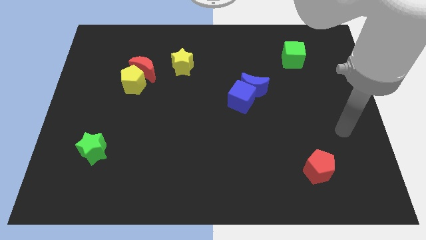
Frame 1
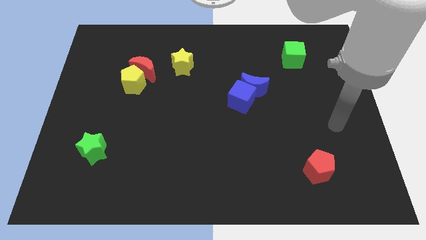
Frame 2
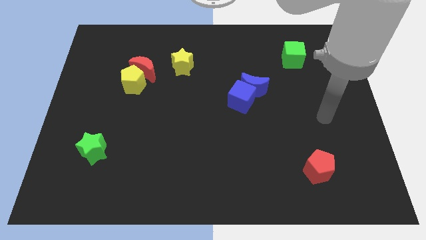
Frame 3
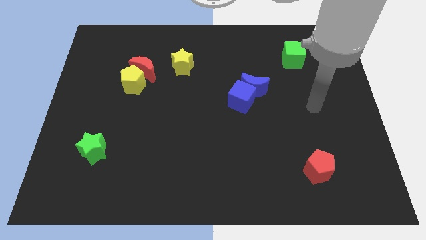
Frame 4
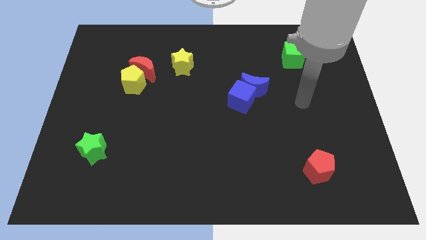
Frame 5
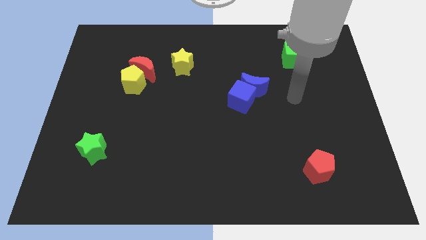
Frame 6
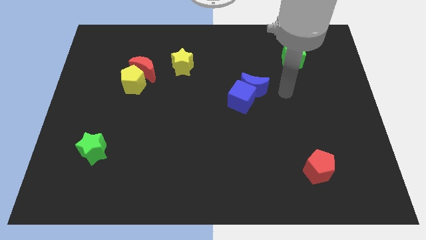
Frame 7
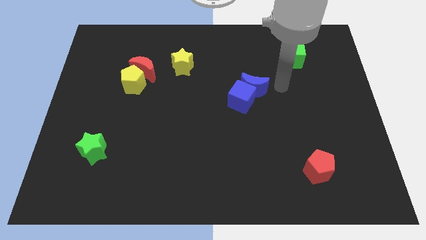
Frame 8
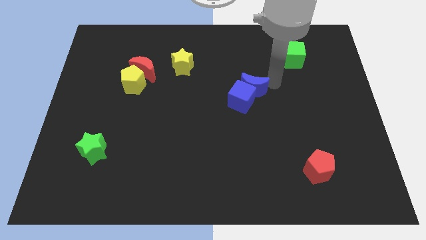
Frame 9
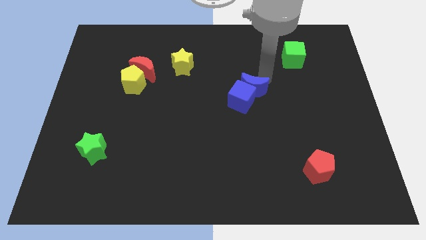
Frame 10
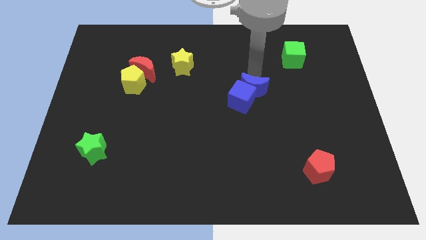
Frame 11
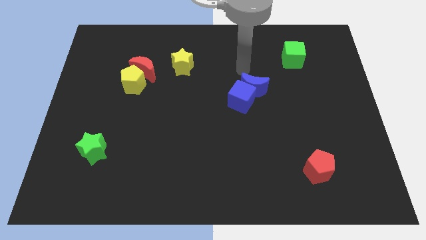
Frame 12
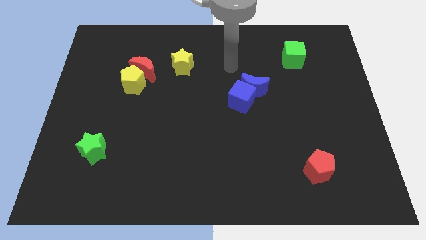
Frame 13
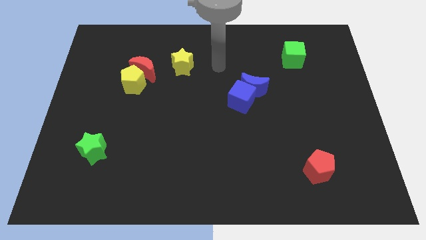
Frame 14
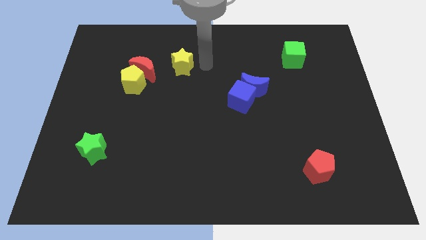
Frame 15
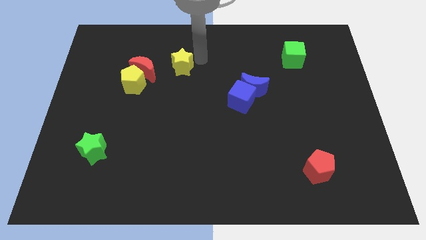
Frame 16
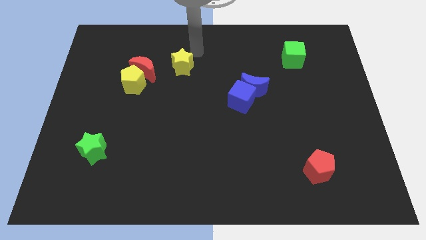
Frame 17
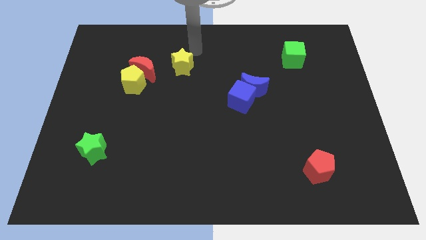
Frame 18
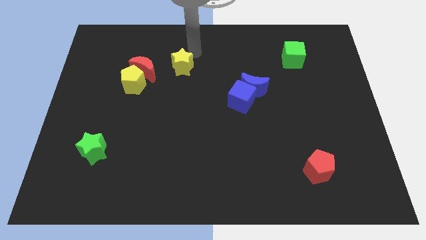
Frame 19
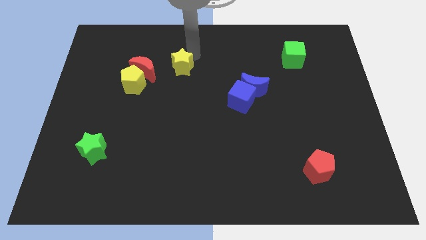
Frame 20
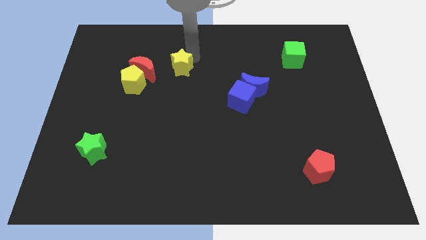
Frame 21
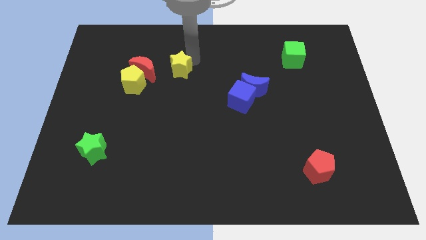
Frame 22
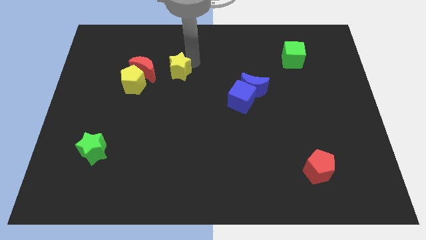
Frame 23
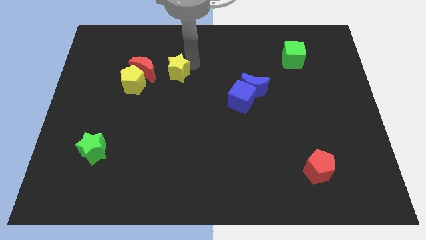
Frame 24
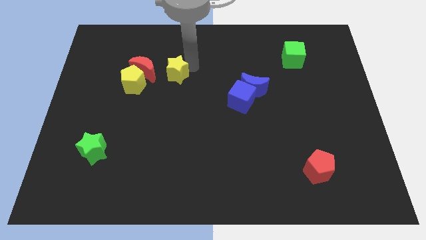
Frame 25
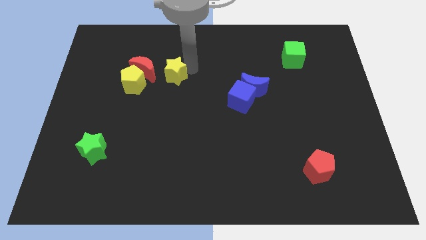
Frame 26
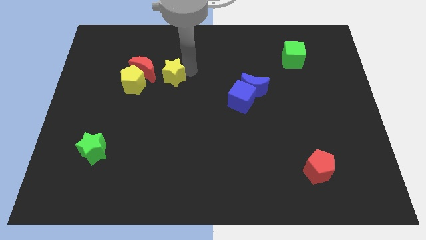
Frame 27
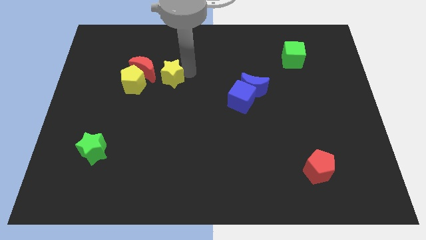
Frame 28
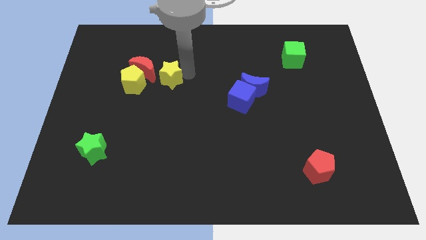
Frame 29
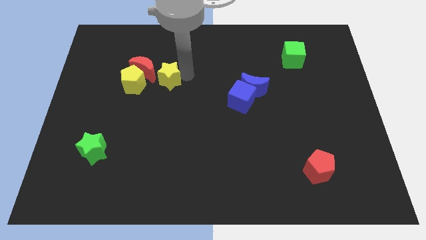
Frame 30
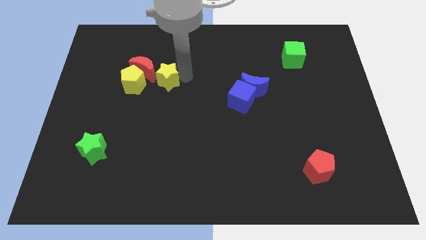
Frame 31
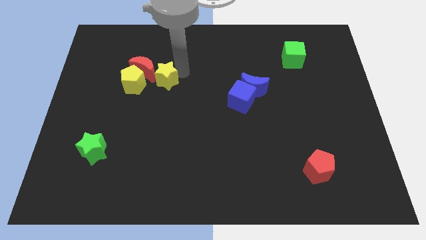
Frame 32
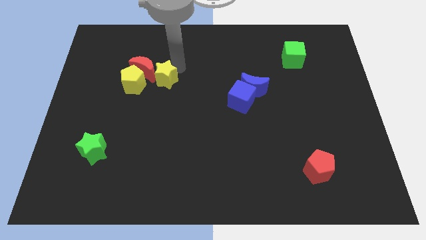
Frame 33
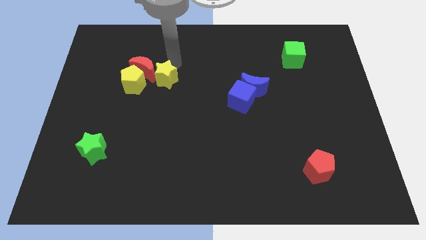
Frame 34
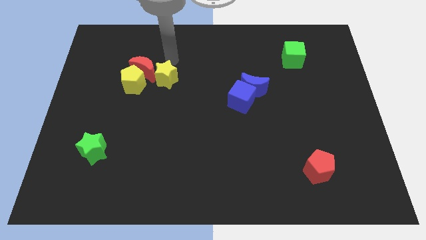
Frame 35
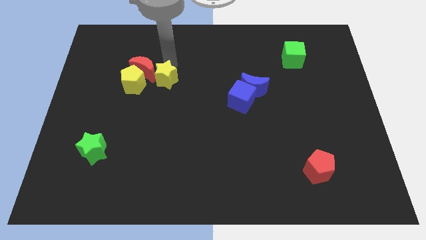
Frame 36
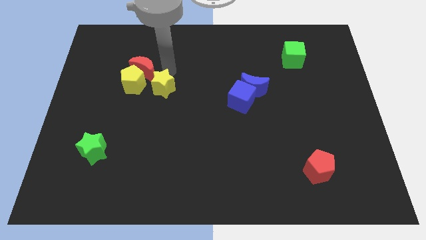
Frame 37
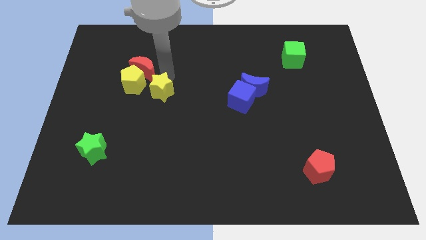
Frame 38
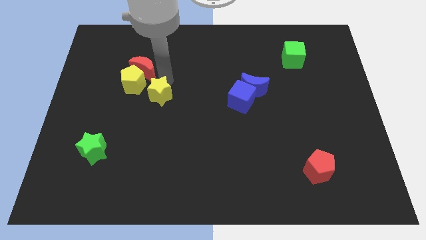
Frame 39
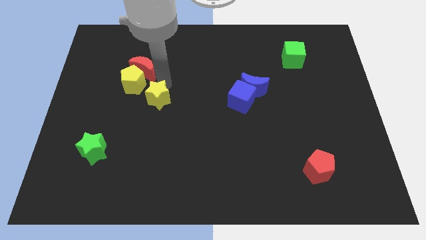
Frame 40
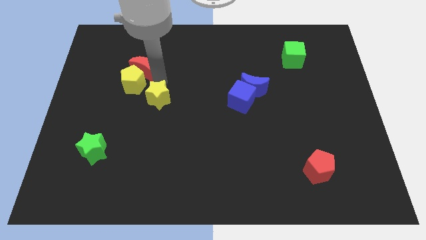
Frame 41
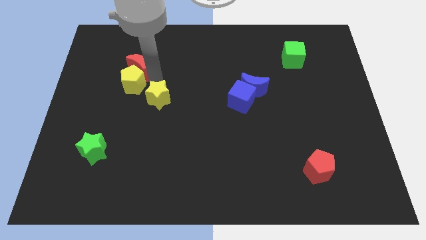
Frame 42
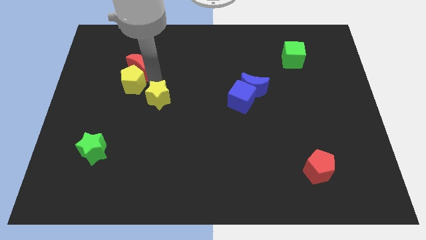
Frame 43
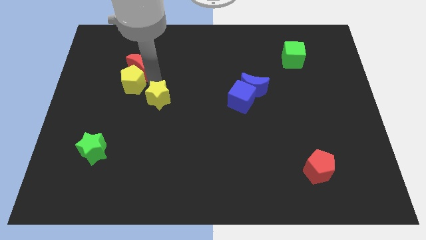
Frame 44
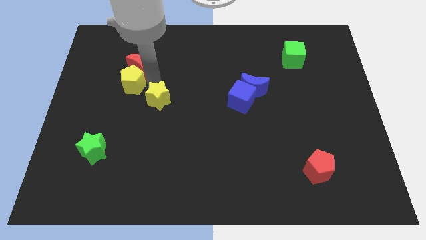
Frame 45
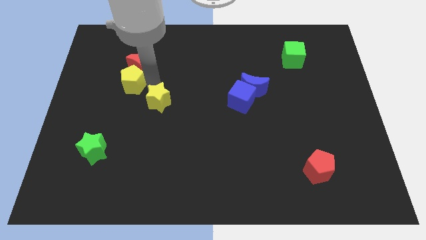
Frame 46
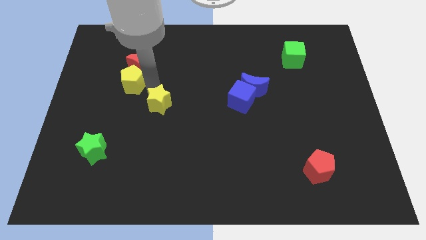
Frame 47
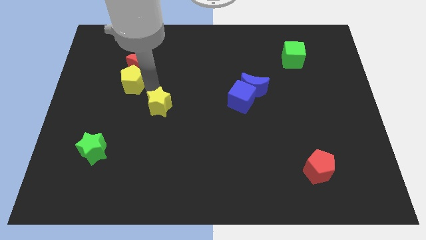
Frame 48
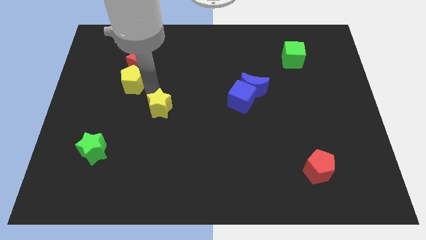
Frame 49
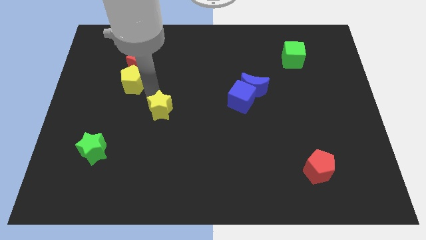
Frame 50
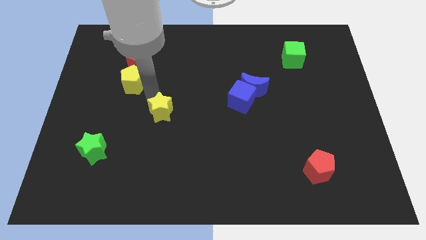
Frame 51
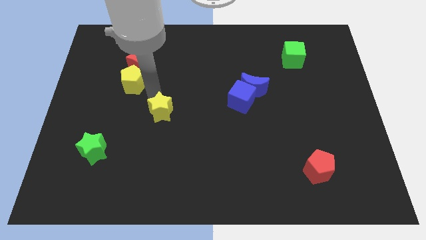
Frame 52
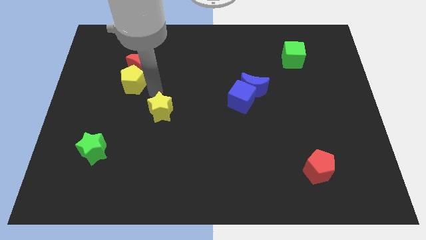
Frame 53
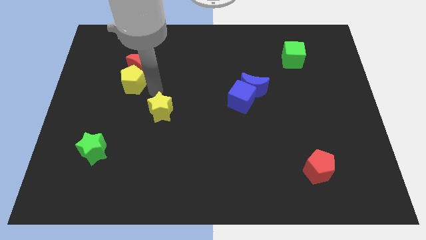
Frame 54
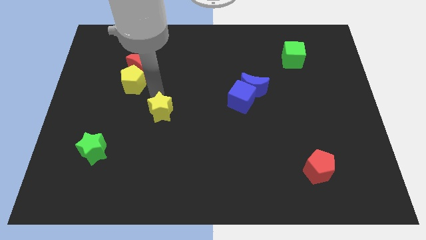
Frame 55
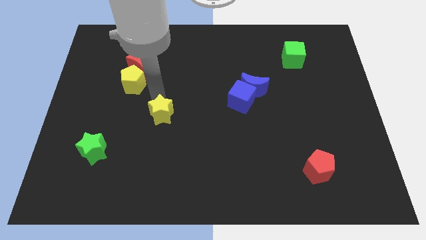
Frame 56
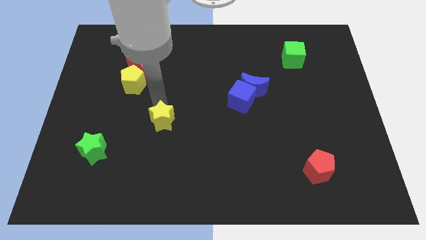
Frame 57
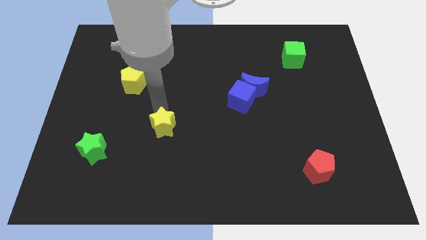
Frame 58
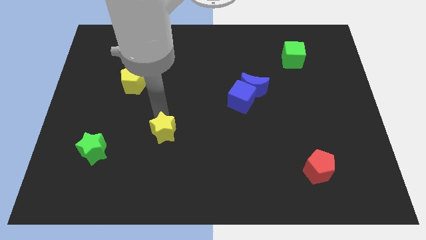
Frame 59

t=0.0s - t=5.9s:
slide the yellow star downwards

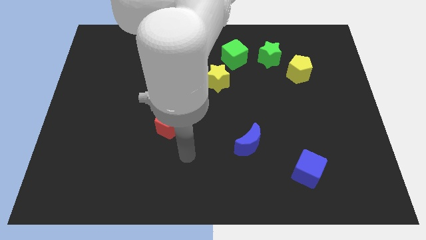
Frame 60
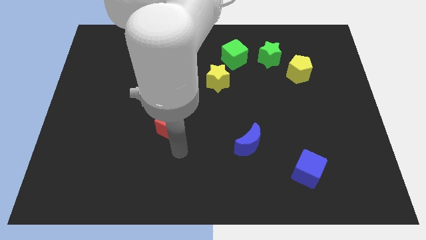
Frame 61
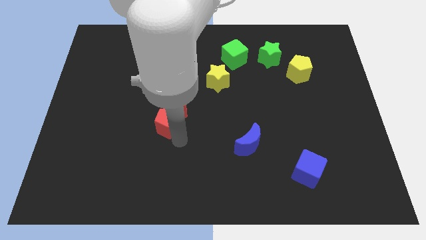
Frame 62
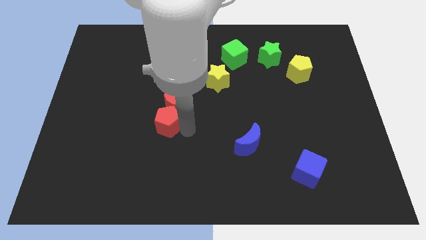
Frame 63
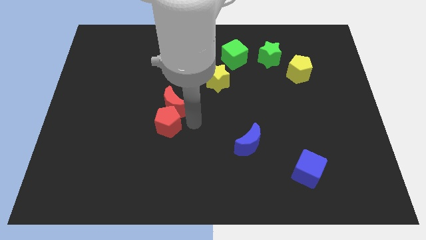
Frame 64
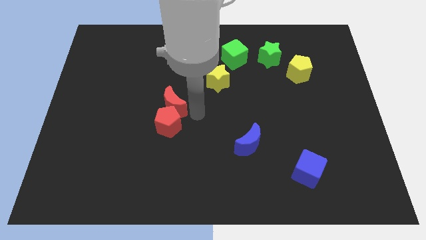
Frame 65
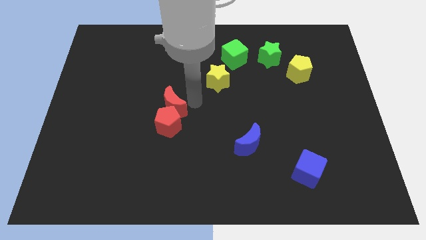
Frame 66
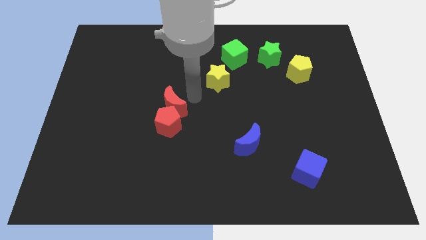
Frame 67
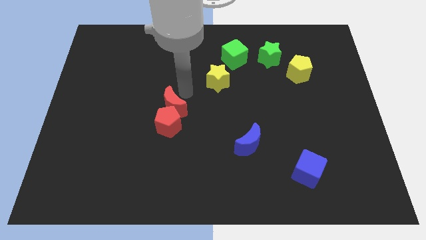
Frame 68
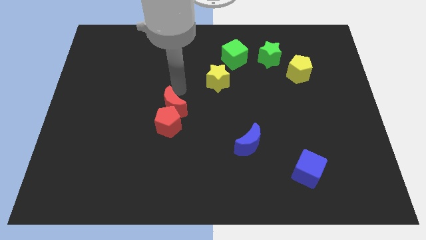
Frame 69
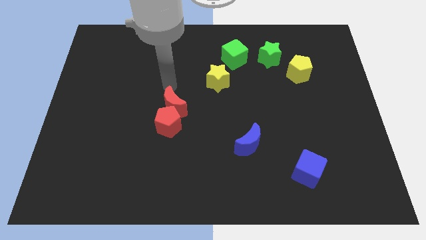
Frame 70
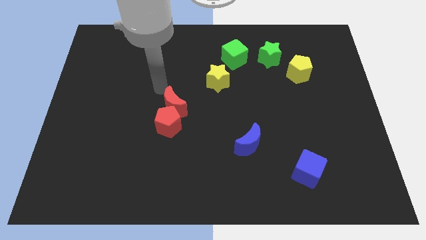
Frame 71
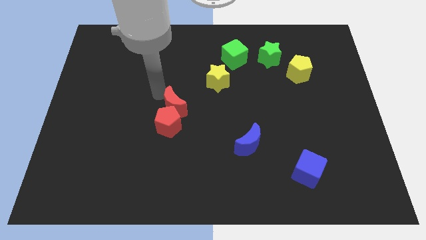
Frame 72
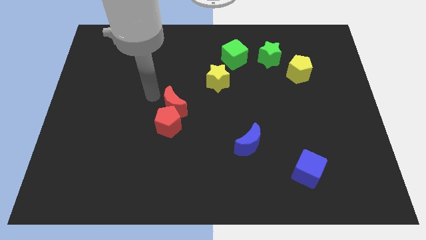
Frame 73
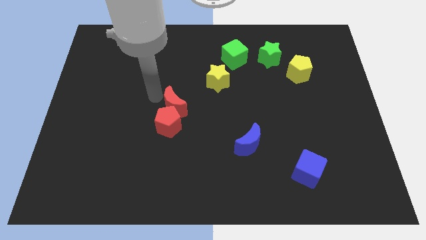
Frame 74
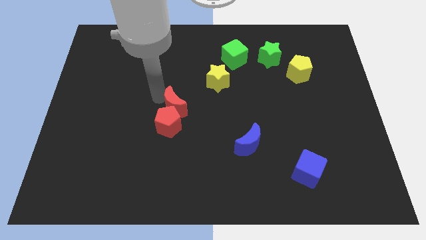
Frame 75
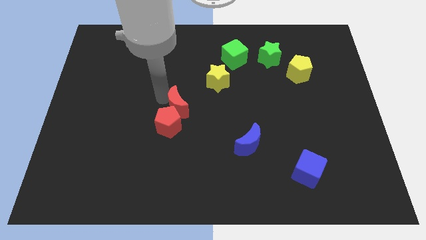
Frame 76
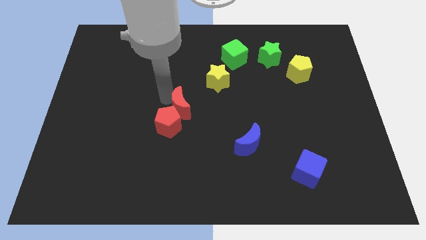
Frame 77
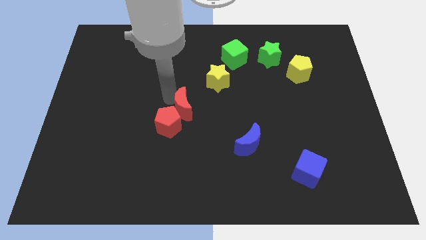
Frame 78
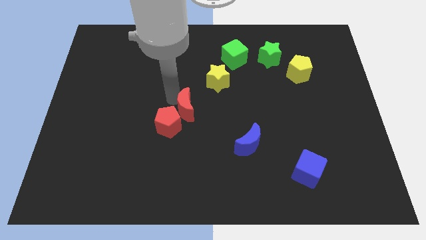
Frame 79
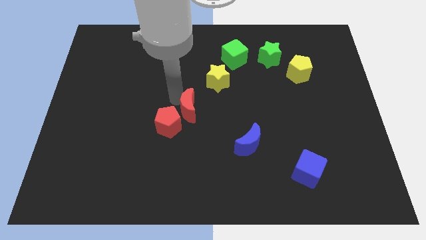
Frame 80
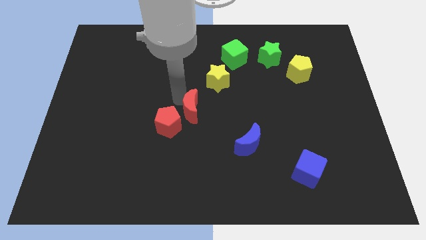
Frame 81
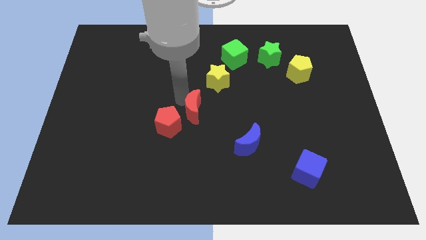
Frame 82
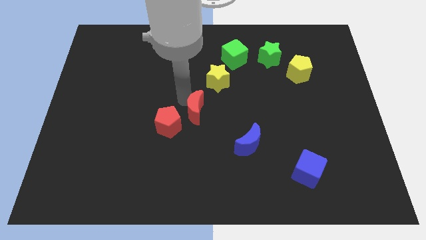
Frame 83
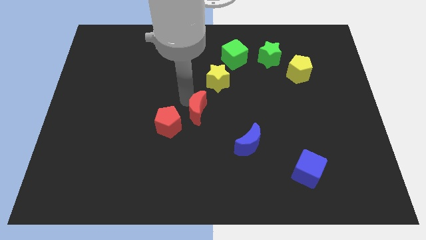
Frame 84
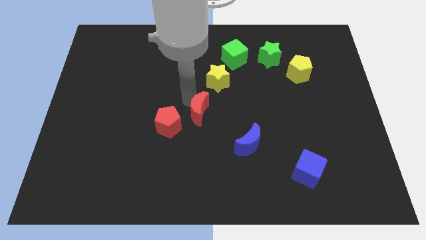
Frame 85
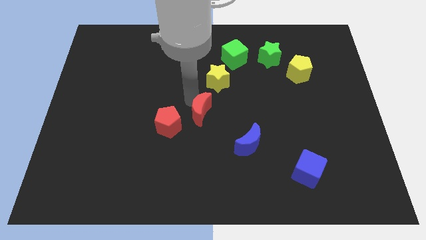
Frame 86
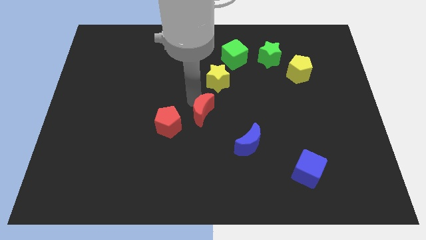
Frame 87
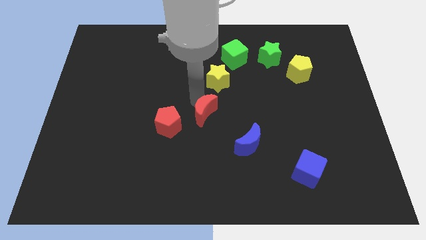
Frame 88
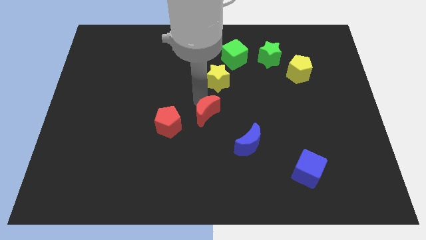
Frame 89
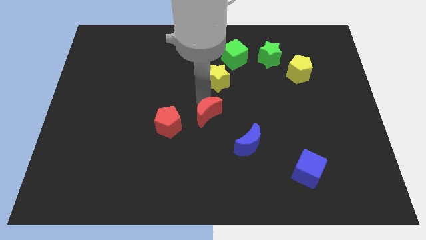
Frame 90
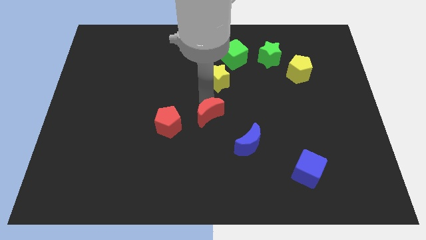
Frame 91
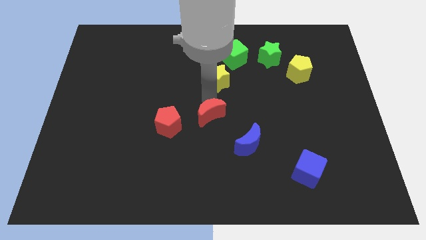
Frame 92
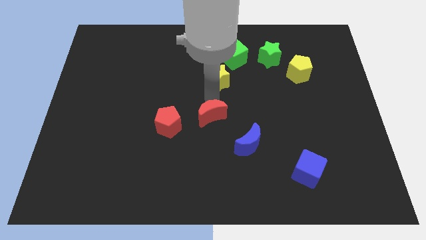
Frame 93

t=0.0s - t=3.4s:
move the red moon down and to the right a little bit
